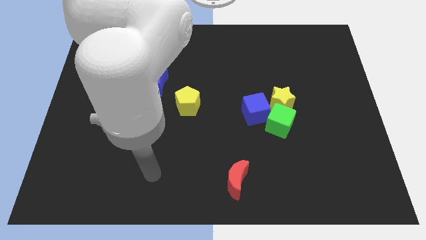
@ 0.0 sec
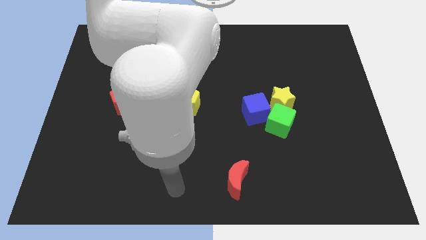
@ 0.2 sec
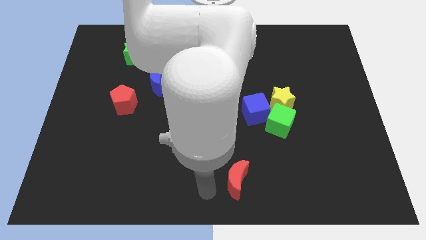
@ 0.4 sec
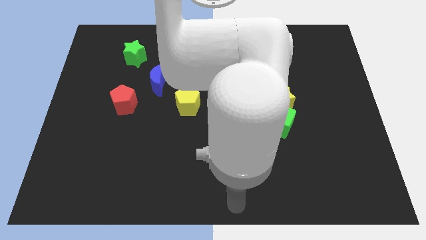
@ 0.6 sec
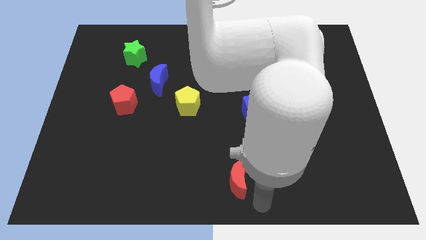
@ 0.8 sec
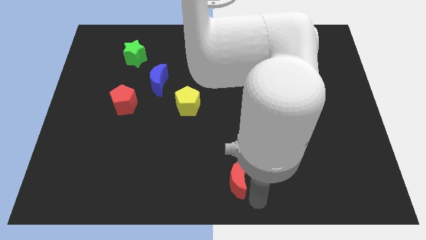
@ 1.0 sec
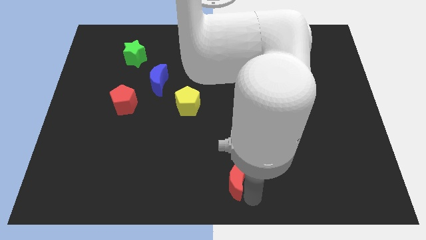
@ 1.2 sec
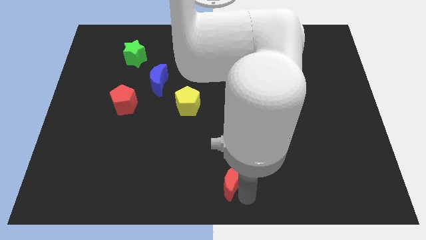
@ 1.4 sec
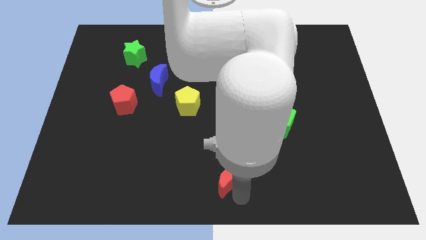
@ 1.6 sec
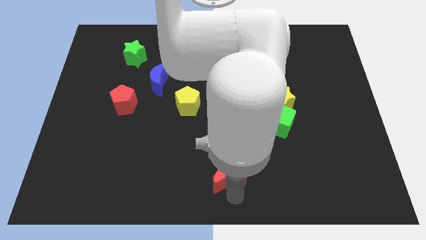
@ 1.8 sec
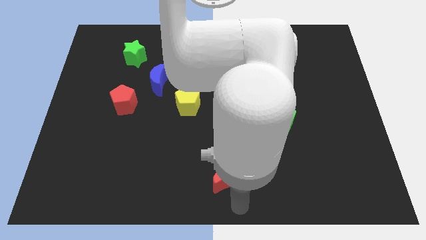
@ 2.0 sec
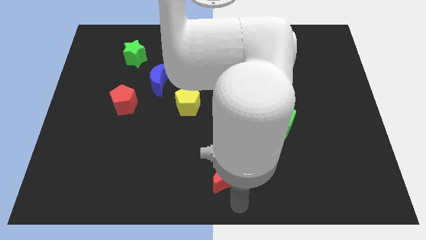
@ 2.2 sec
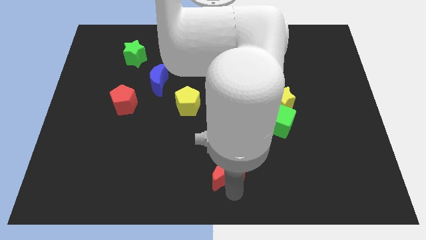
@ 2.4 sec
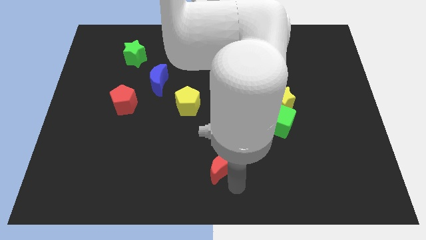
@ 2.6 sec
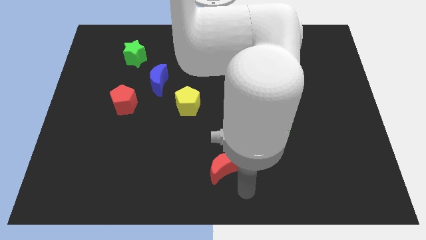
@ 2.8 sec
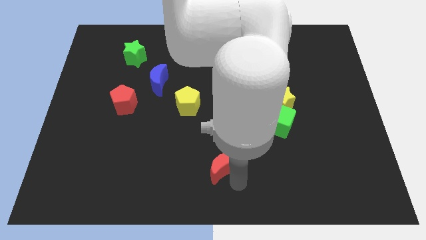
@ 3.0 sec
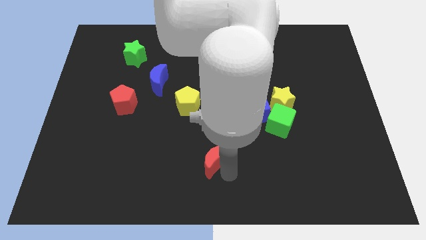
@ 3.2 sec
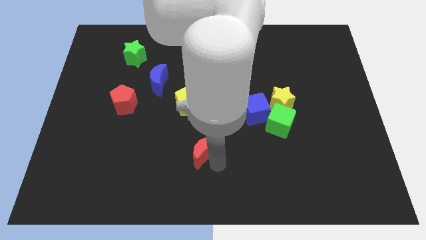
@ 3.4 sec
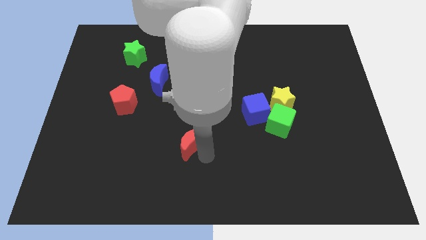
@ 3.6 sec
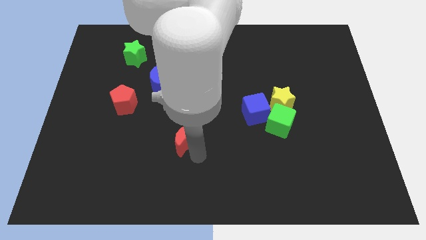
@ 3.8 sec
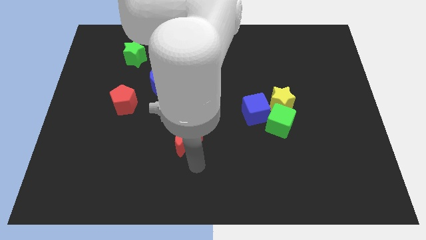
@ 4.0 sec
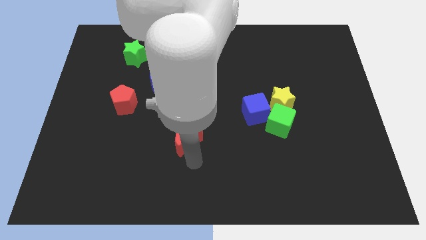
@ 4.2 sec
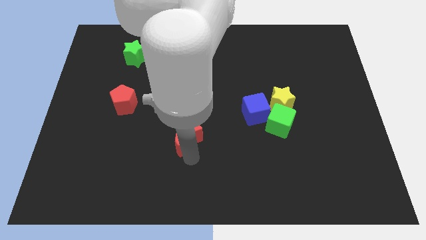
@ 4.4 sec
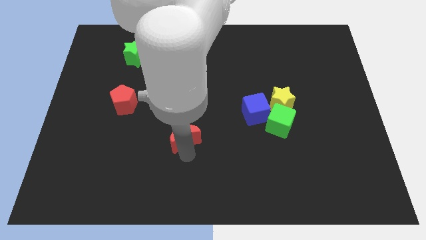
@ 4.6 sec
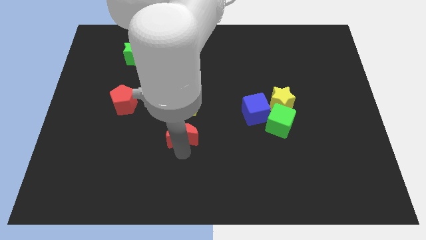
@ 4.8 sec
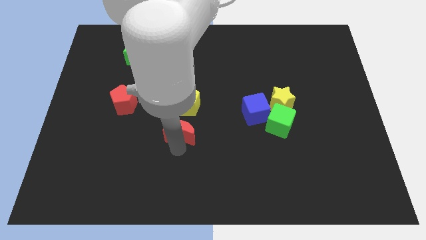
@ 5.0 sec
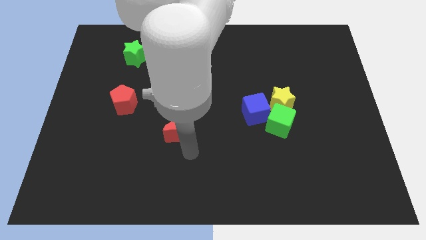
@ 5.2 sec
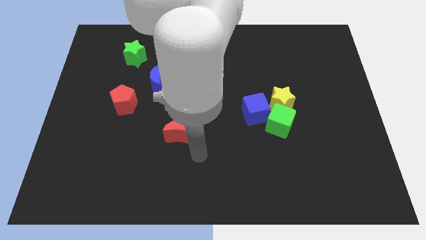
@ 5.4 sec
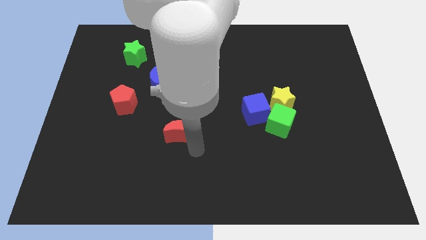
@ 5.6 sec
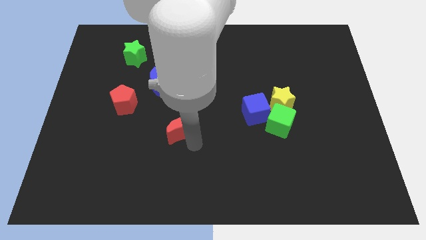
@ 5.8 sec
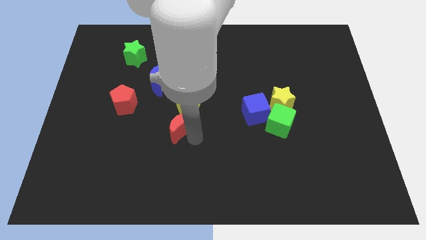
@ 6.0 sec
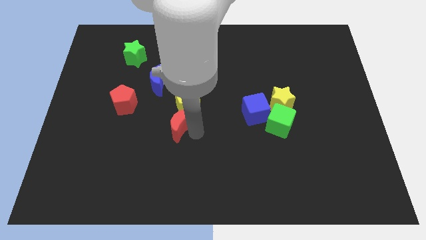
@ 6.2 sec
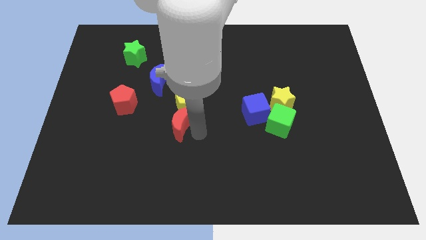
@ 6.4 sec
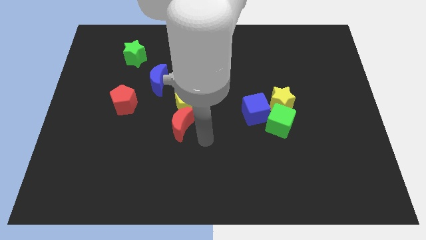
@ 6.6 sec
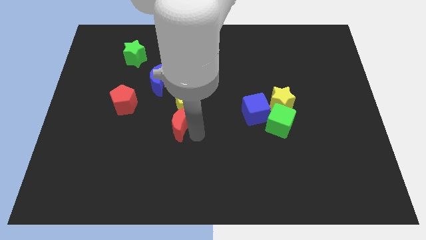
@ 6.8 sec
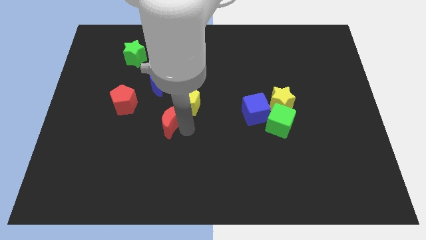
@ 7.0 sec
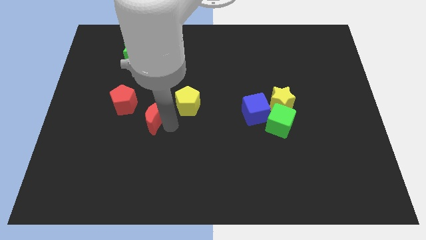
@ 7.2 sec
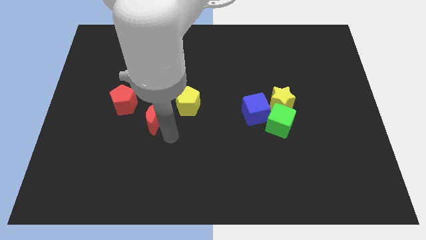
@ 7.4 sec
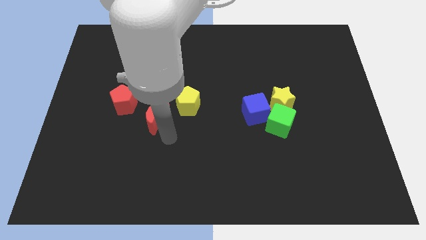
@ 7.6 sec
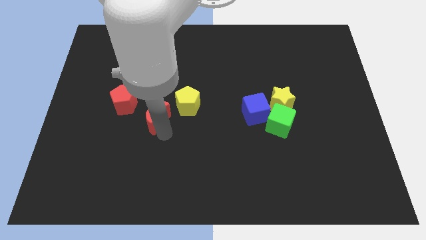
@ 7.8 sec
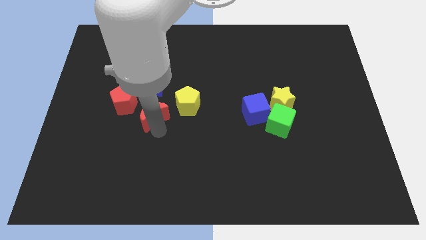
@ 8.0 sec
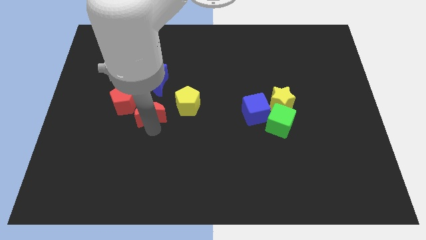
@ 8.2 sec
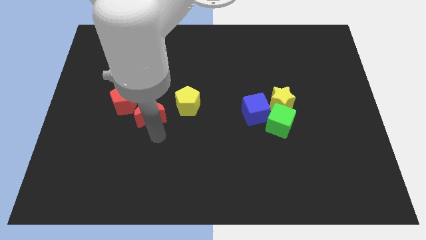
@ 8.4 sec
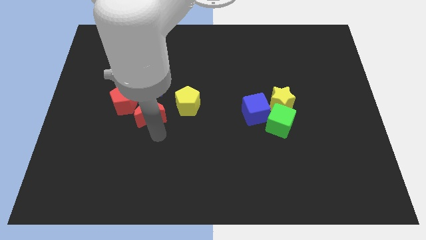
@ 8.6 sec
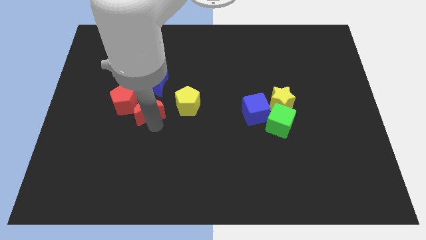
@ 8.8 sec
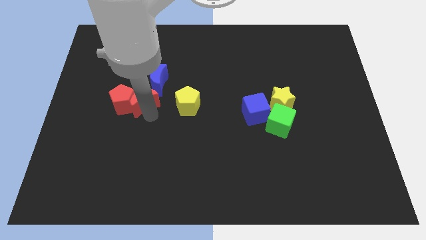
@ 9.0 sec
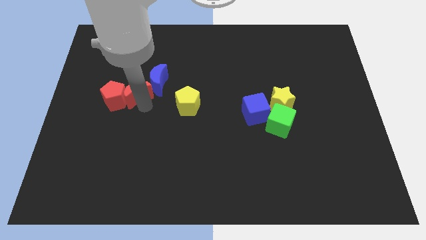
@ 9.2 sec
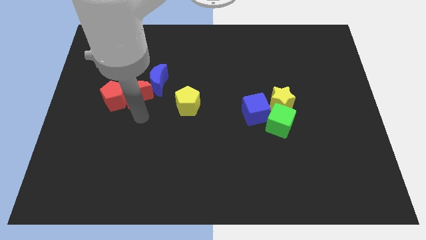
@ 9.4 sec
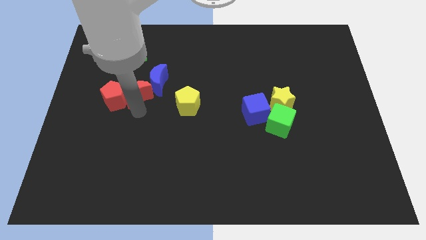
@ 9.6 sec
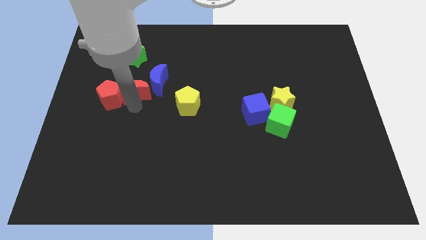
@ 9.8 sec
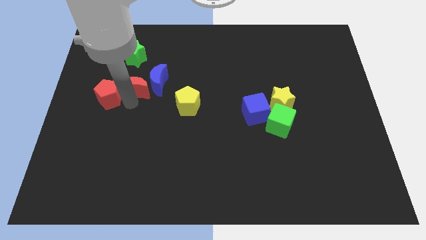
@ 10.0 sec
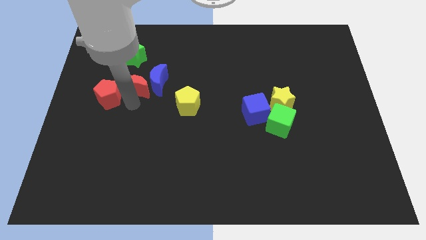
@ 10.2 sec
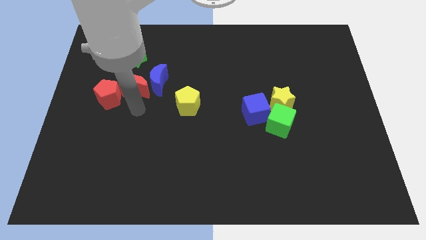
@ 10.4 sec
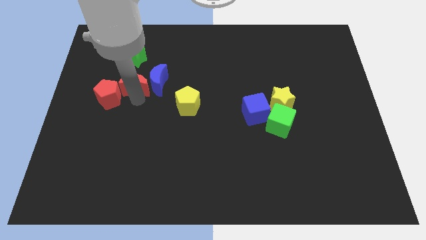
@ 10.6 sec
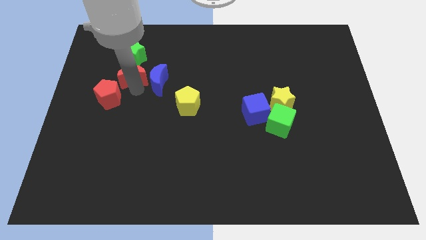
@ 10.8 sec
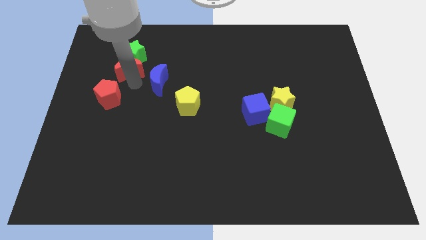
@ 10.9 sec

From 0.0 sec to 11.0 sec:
move the red moon next to the green star

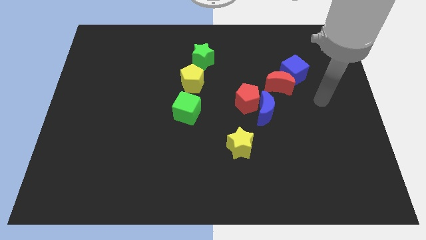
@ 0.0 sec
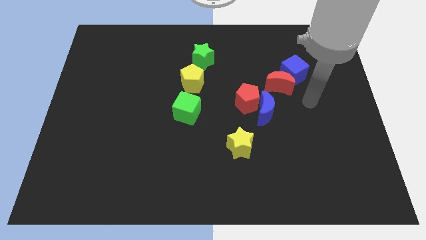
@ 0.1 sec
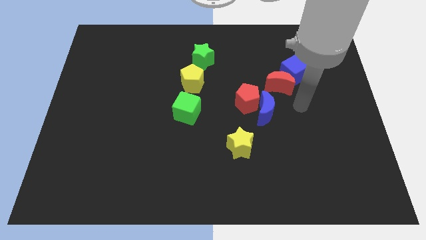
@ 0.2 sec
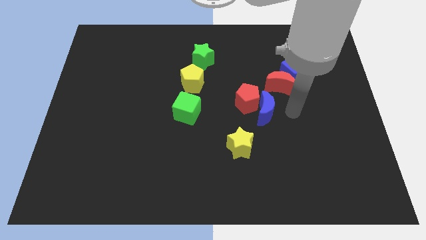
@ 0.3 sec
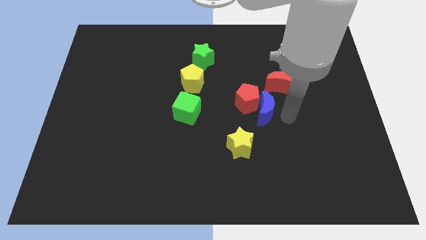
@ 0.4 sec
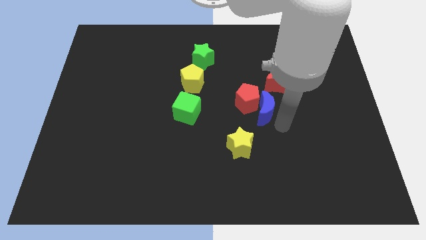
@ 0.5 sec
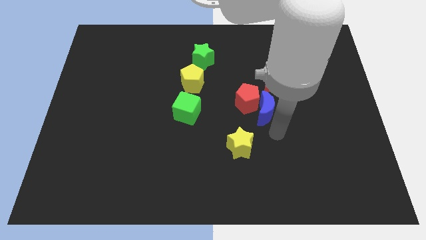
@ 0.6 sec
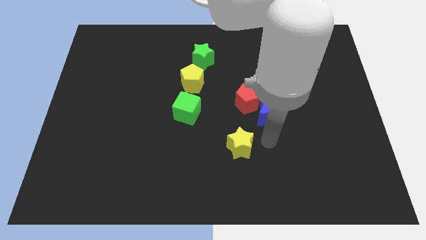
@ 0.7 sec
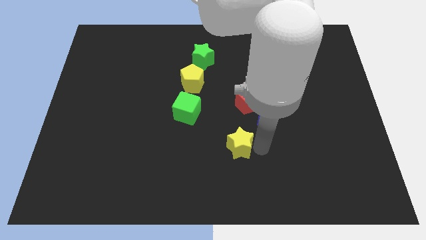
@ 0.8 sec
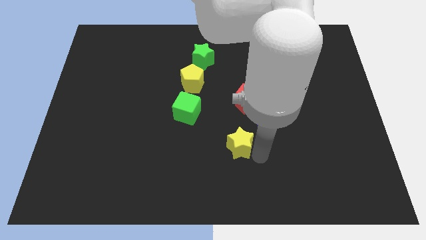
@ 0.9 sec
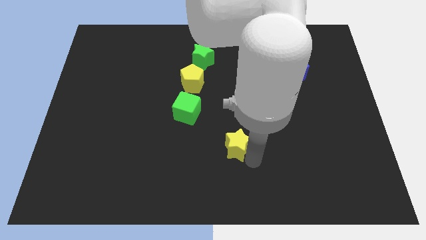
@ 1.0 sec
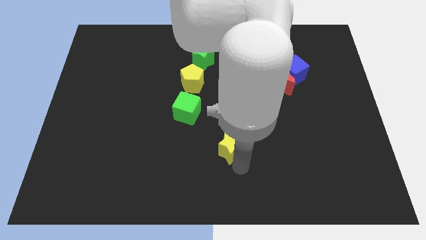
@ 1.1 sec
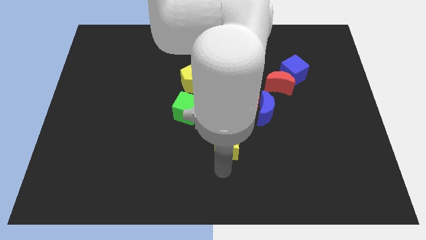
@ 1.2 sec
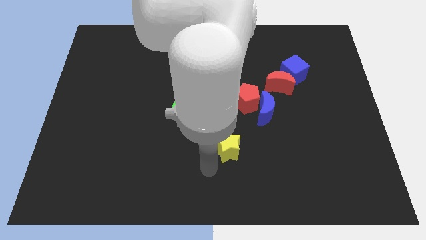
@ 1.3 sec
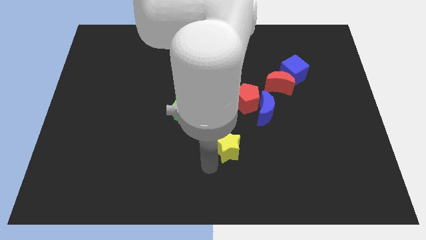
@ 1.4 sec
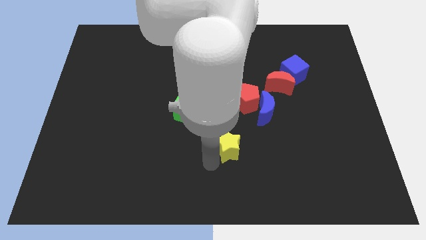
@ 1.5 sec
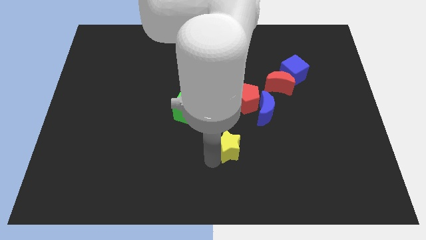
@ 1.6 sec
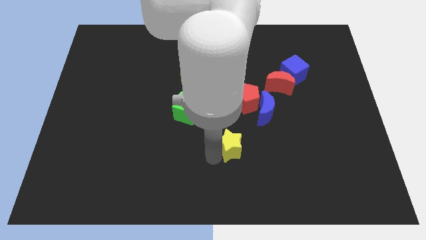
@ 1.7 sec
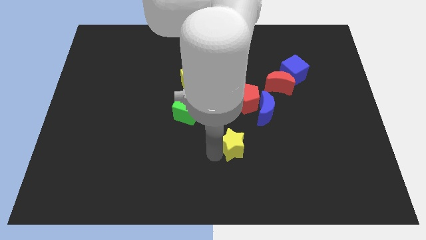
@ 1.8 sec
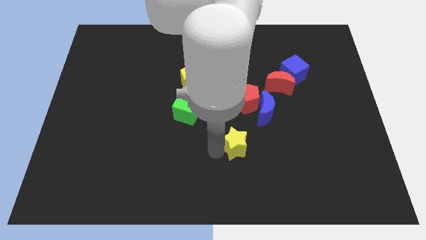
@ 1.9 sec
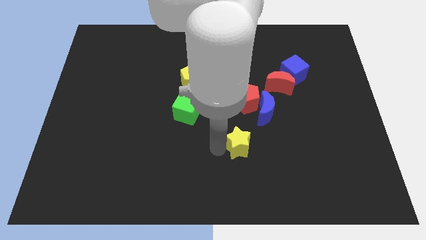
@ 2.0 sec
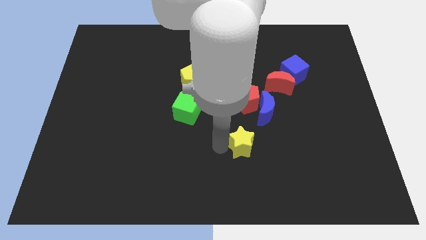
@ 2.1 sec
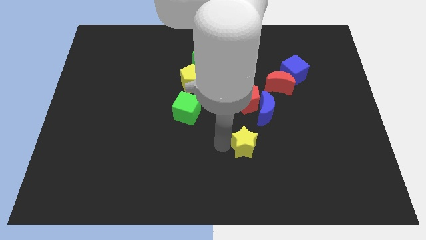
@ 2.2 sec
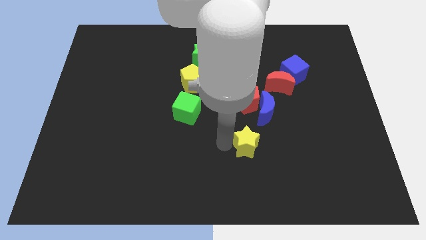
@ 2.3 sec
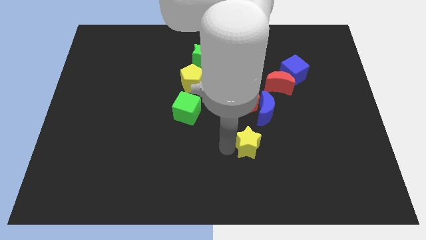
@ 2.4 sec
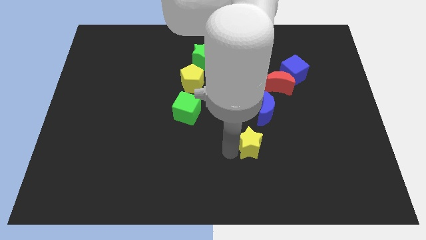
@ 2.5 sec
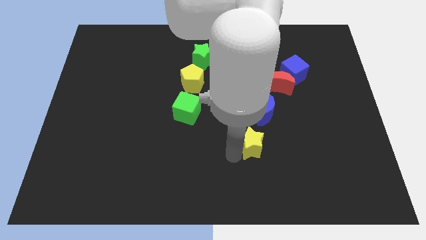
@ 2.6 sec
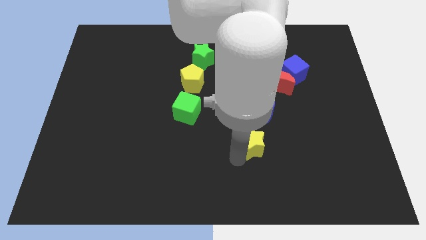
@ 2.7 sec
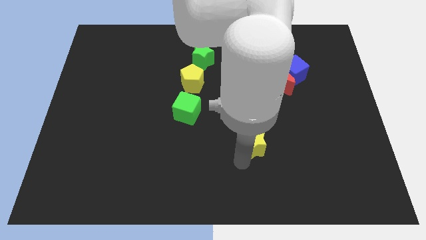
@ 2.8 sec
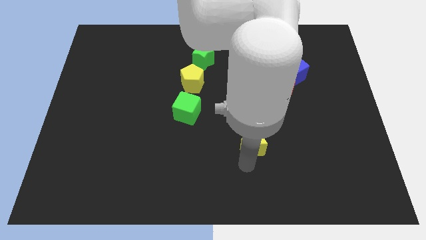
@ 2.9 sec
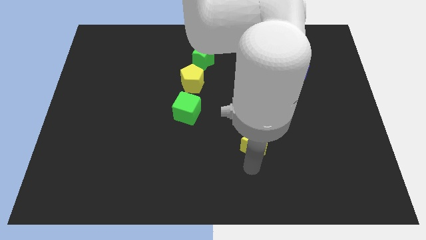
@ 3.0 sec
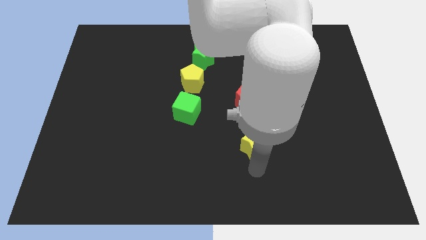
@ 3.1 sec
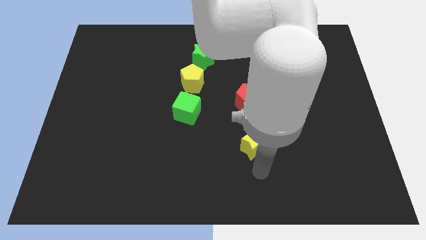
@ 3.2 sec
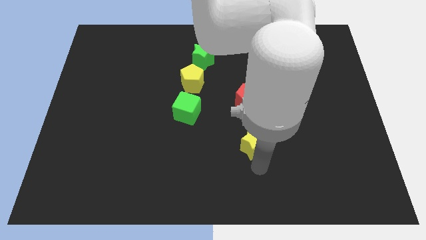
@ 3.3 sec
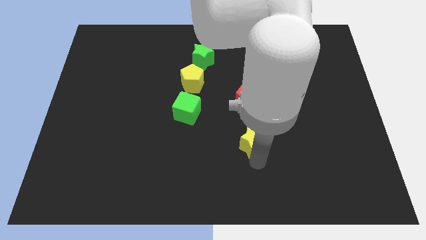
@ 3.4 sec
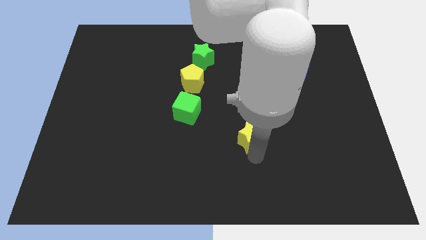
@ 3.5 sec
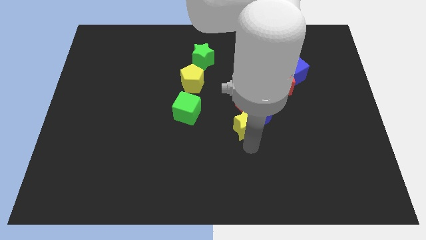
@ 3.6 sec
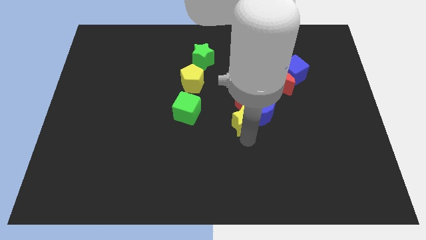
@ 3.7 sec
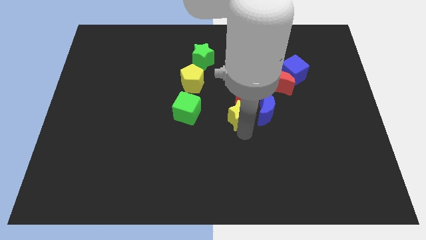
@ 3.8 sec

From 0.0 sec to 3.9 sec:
put the yellow star to the red pentagon
